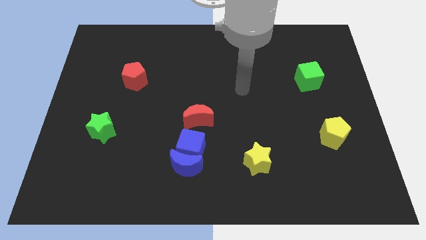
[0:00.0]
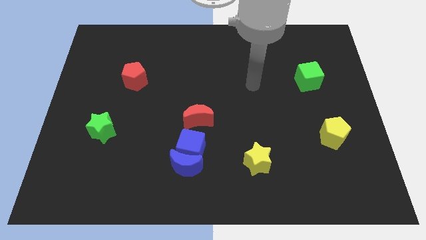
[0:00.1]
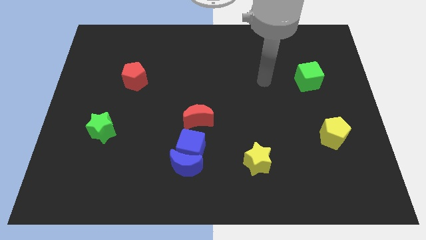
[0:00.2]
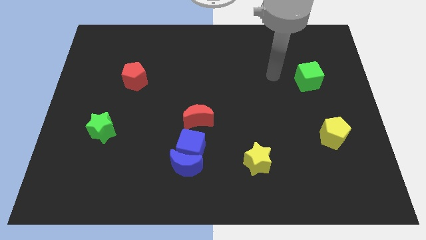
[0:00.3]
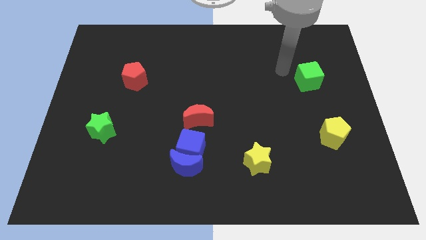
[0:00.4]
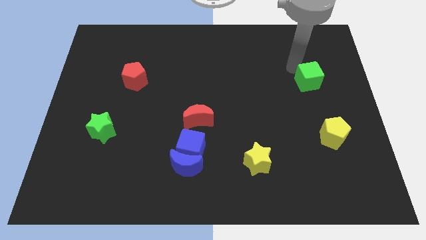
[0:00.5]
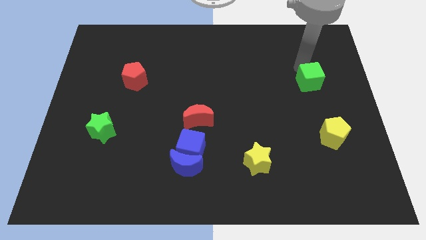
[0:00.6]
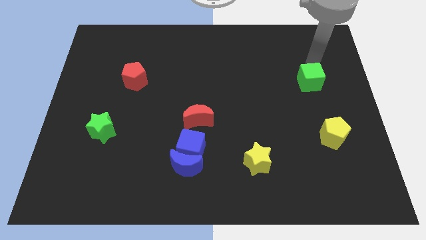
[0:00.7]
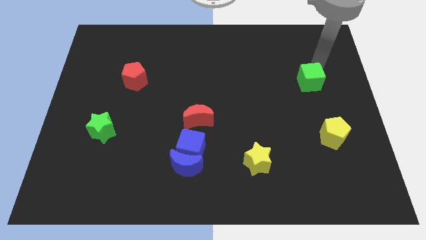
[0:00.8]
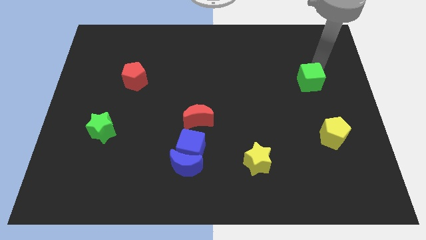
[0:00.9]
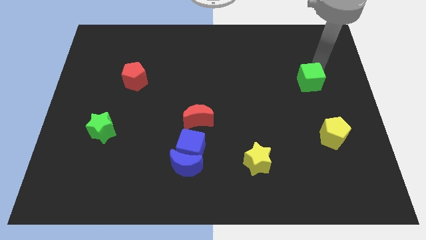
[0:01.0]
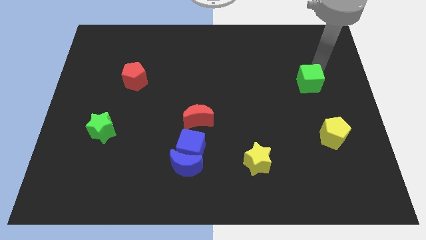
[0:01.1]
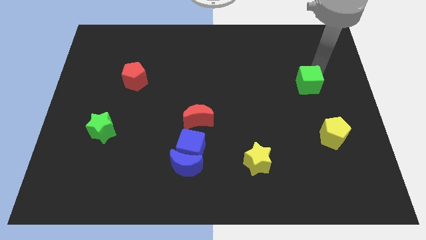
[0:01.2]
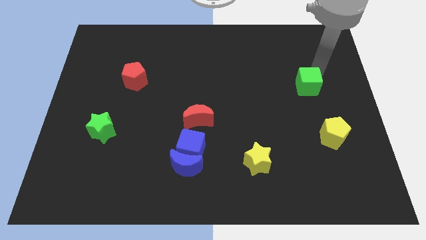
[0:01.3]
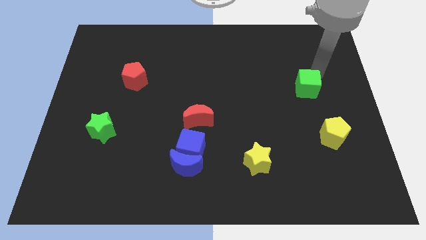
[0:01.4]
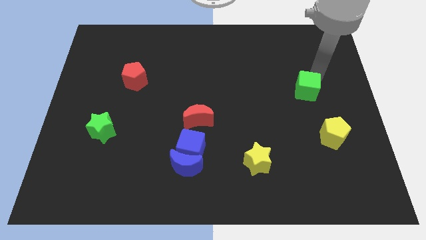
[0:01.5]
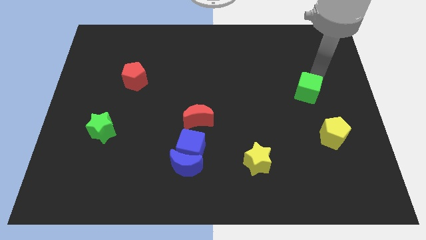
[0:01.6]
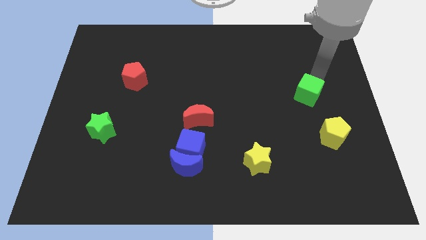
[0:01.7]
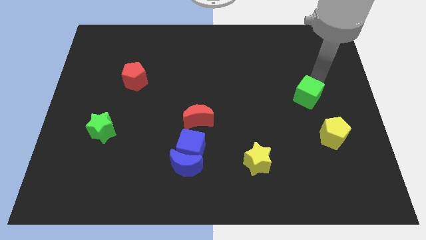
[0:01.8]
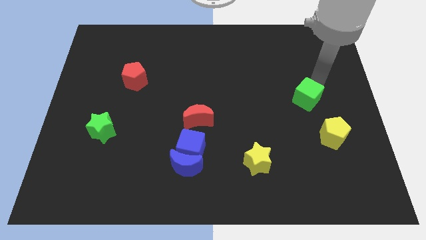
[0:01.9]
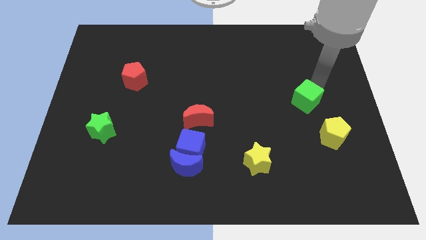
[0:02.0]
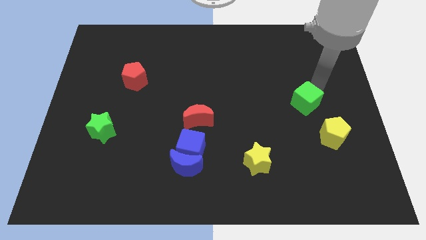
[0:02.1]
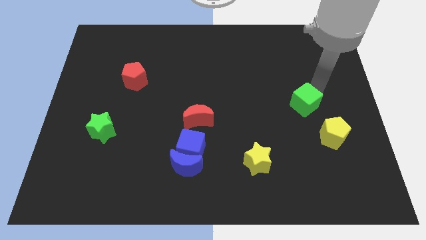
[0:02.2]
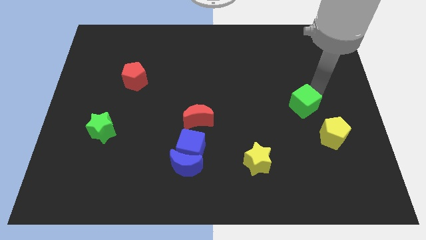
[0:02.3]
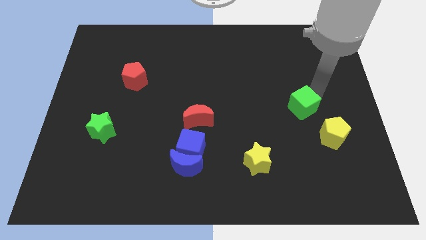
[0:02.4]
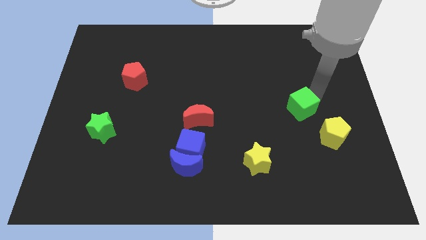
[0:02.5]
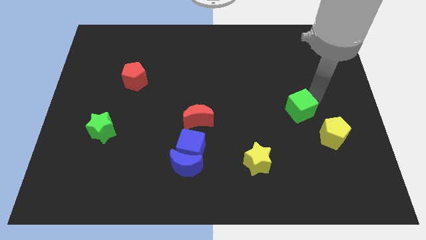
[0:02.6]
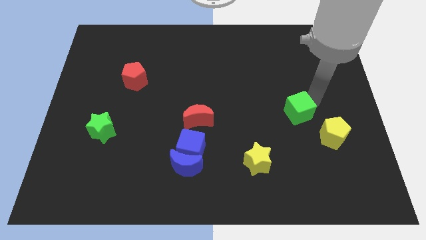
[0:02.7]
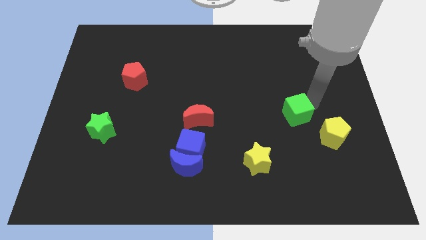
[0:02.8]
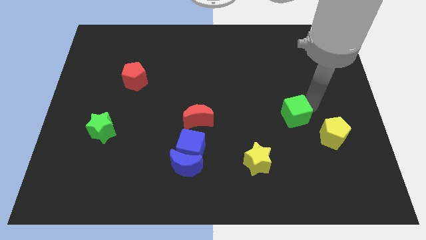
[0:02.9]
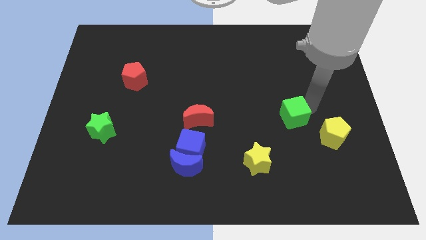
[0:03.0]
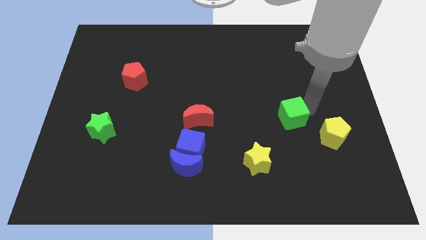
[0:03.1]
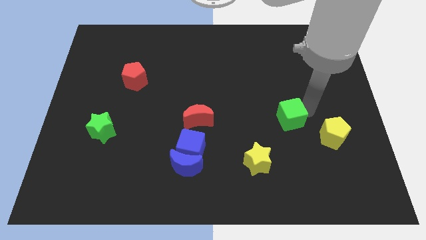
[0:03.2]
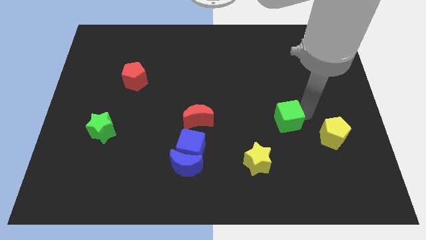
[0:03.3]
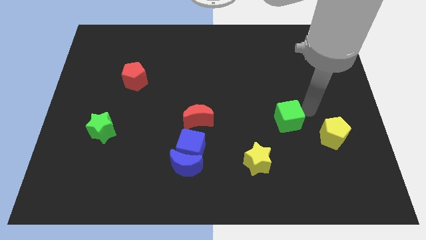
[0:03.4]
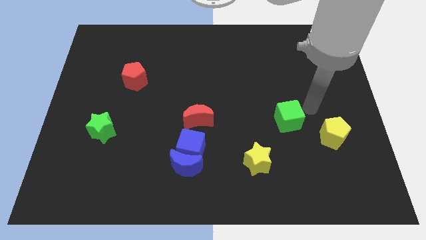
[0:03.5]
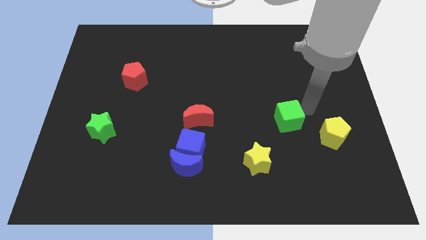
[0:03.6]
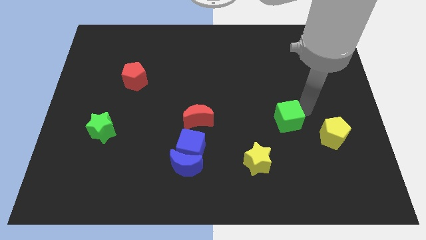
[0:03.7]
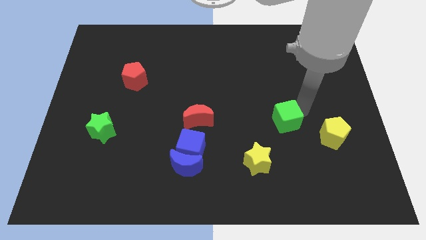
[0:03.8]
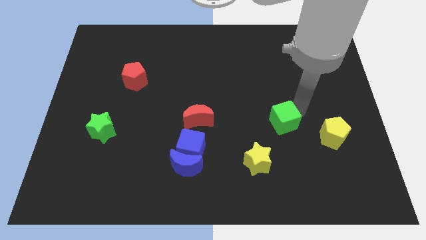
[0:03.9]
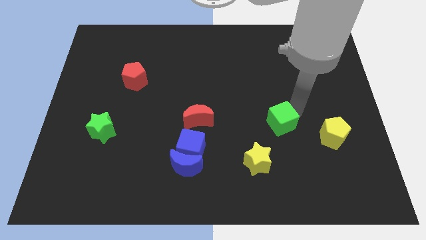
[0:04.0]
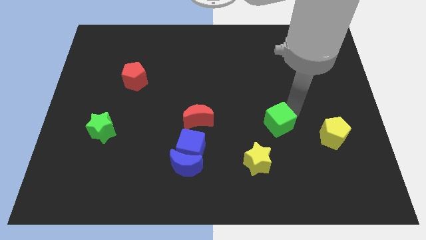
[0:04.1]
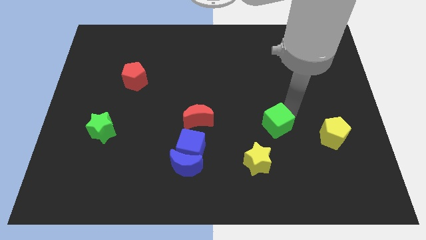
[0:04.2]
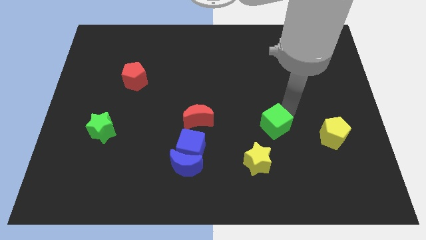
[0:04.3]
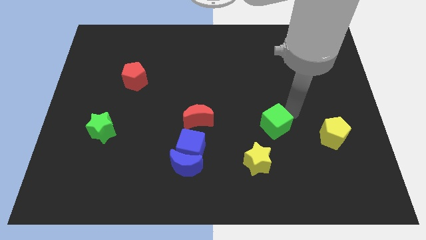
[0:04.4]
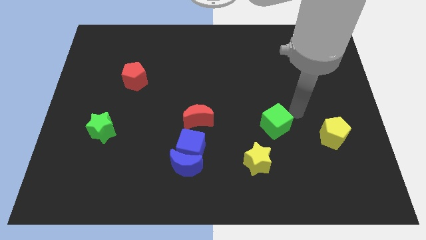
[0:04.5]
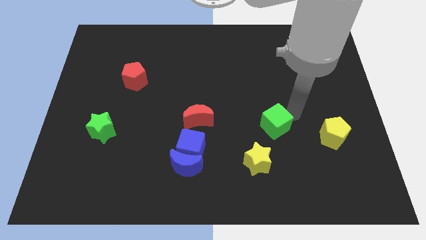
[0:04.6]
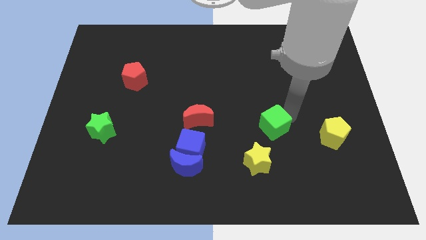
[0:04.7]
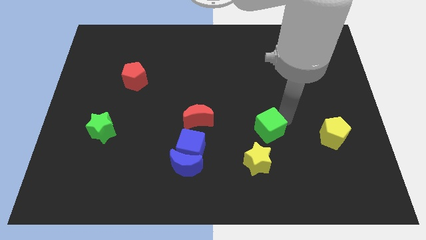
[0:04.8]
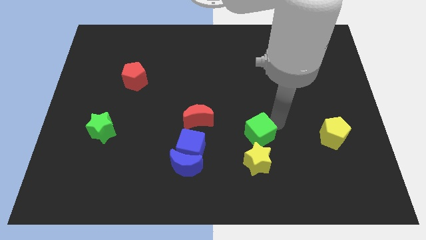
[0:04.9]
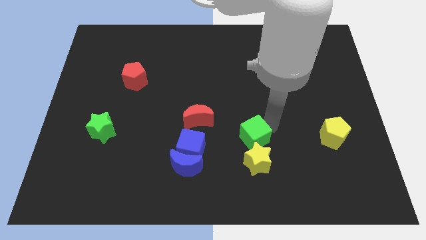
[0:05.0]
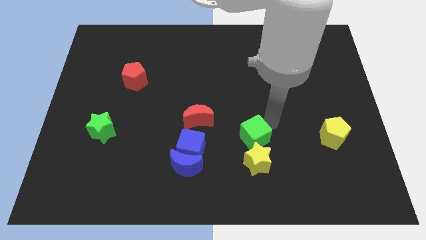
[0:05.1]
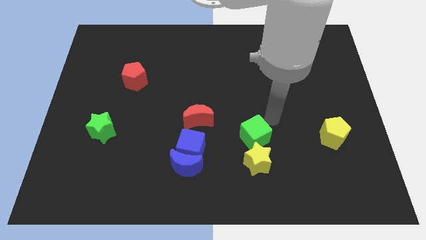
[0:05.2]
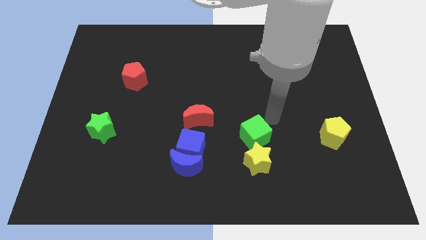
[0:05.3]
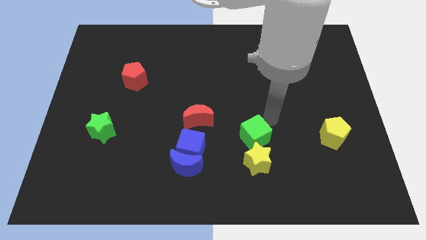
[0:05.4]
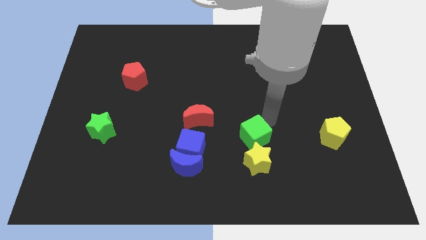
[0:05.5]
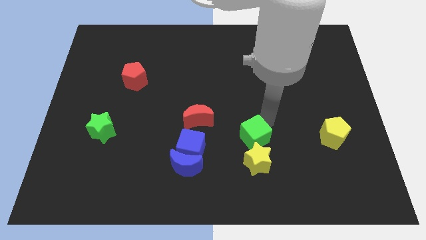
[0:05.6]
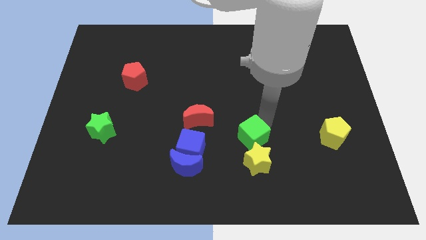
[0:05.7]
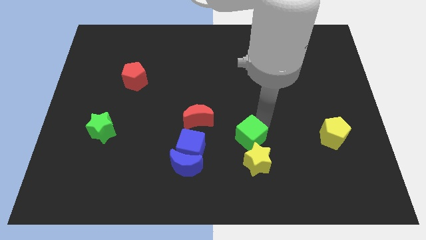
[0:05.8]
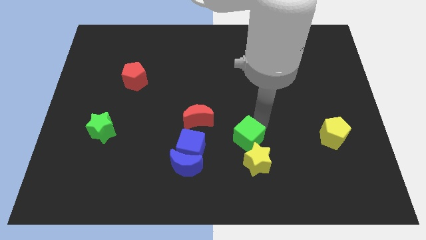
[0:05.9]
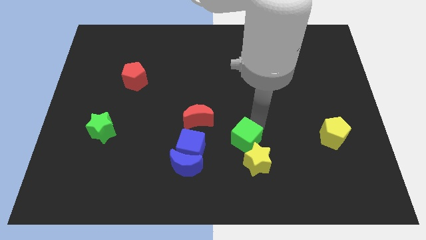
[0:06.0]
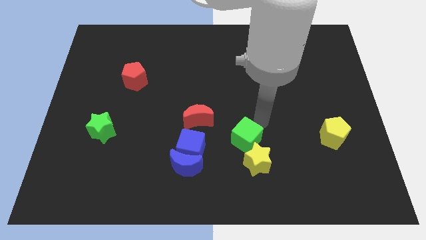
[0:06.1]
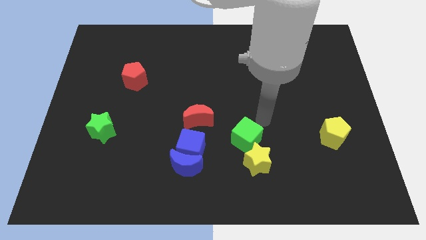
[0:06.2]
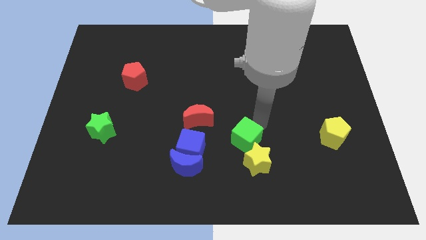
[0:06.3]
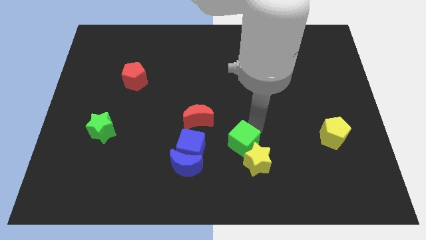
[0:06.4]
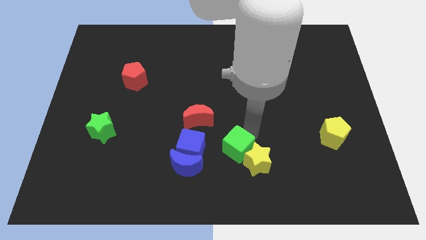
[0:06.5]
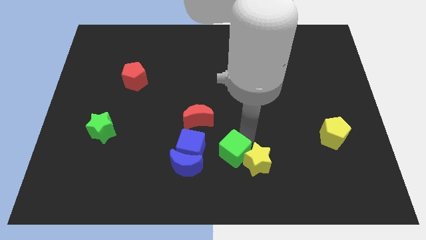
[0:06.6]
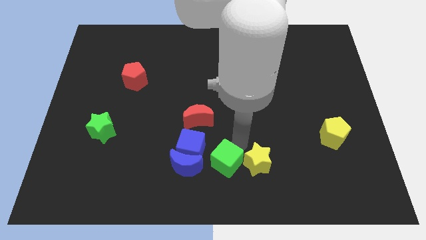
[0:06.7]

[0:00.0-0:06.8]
slide the green cube to the bottom side
